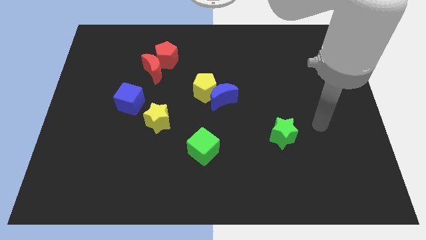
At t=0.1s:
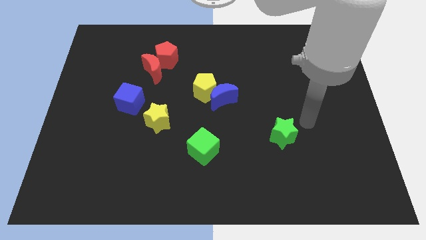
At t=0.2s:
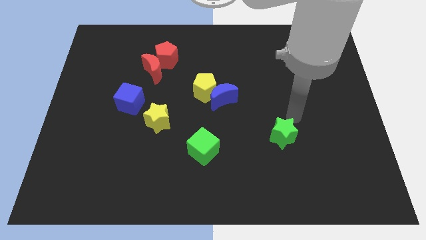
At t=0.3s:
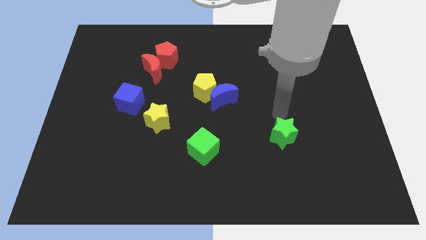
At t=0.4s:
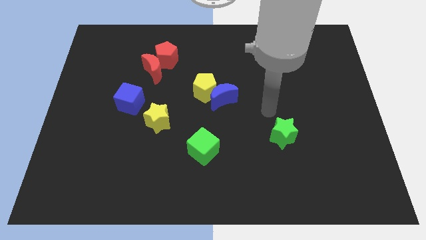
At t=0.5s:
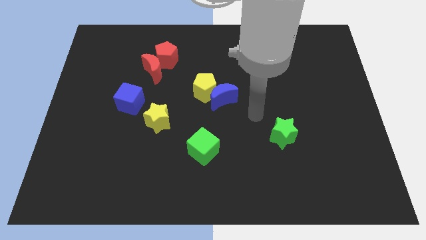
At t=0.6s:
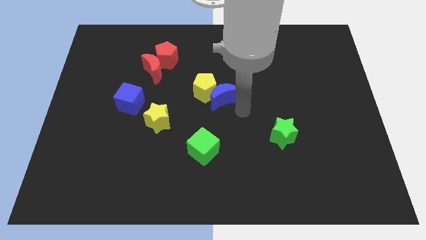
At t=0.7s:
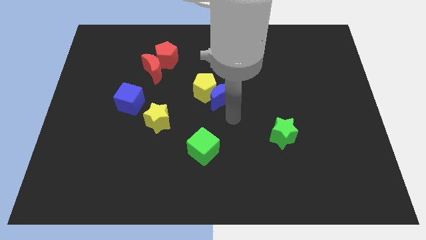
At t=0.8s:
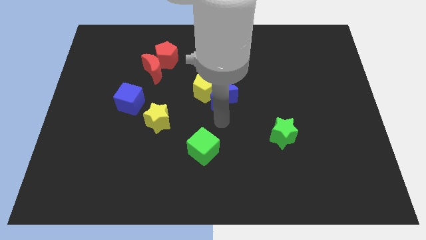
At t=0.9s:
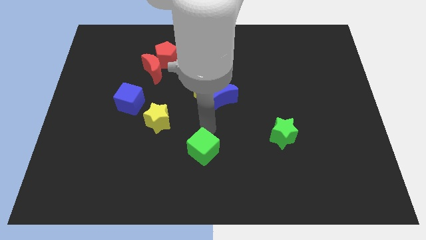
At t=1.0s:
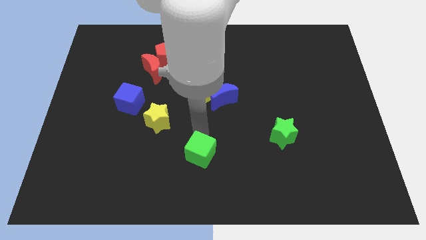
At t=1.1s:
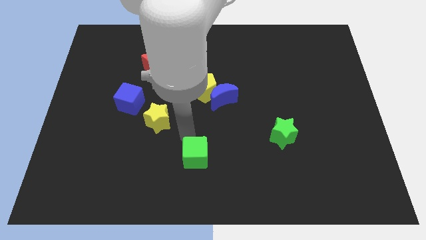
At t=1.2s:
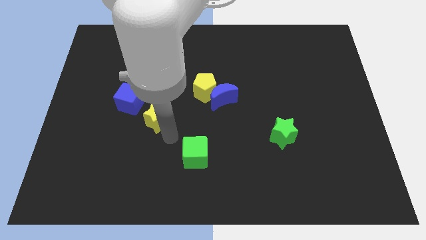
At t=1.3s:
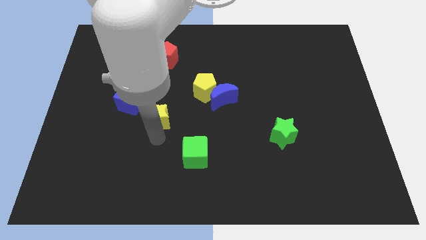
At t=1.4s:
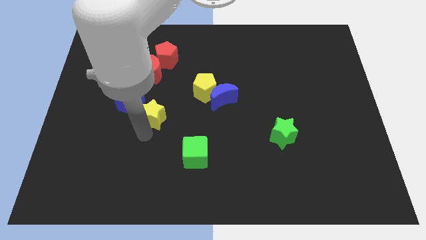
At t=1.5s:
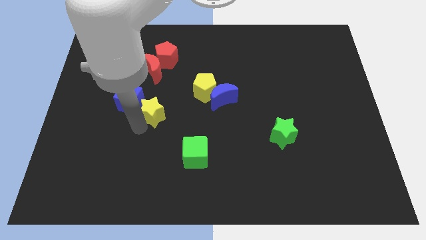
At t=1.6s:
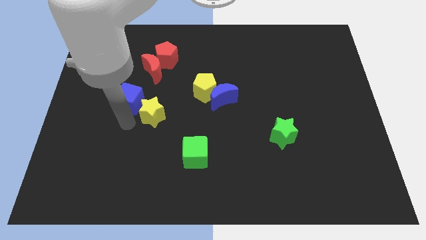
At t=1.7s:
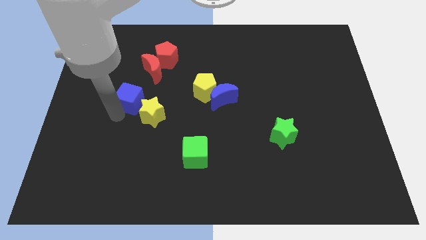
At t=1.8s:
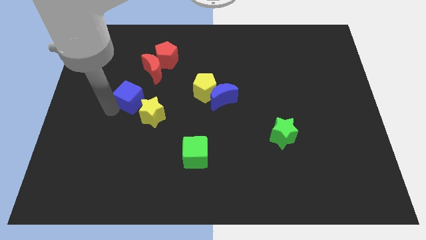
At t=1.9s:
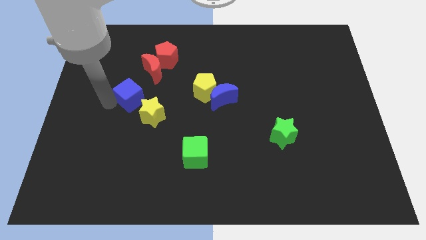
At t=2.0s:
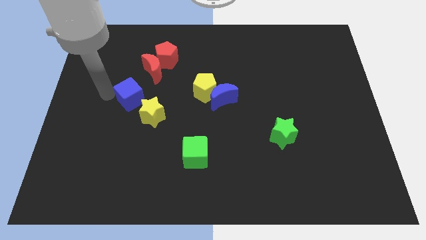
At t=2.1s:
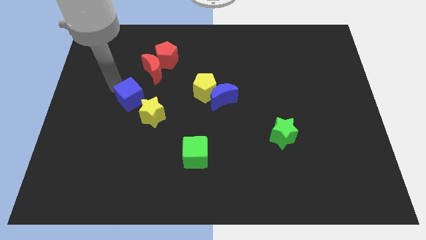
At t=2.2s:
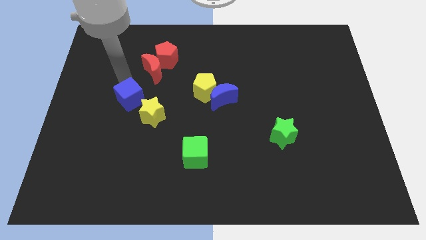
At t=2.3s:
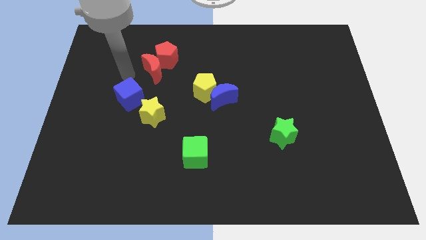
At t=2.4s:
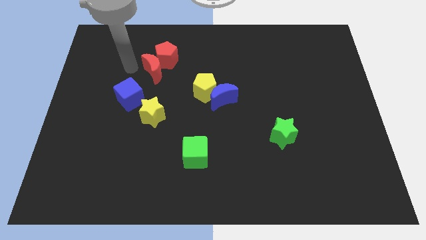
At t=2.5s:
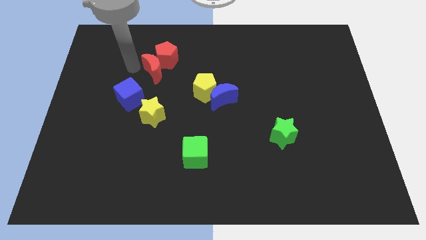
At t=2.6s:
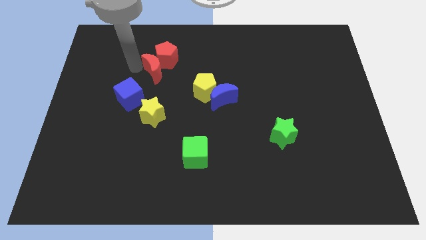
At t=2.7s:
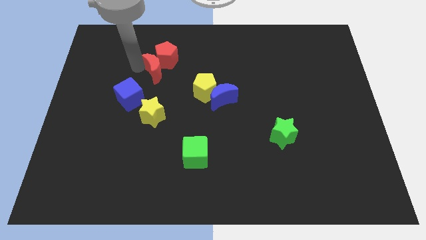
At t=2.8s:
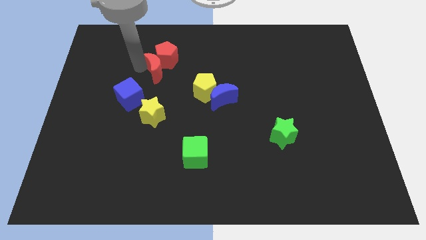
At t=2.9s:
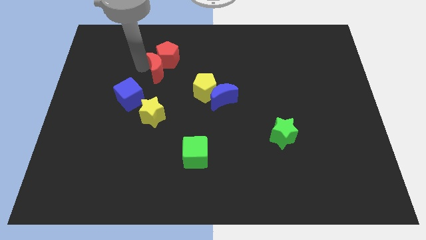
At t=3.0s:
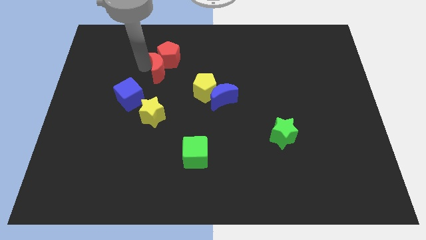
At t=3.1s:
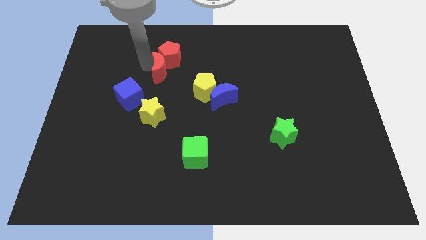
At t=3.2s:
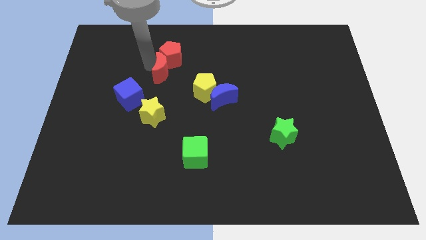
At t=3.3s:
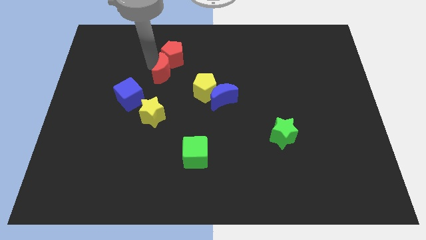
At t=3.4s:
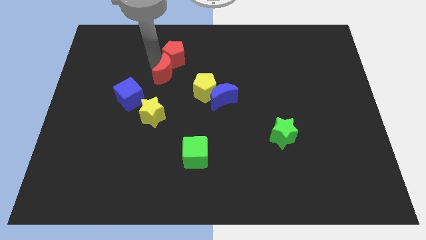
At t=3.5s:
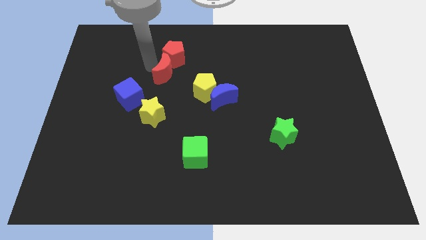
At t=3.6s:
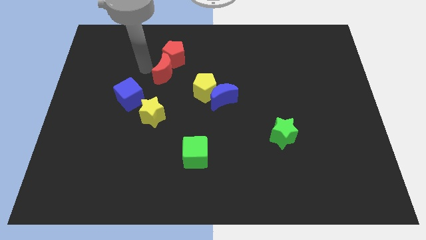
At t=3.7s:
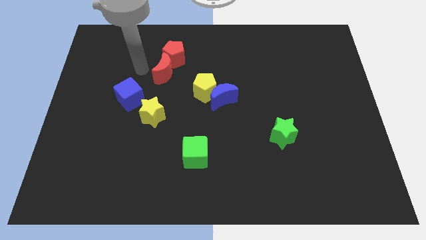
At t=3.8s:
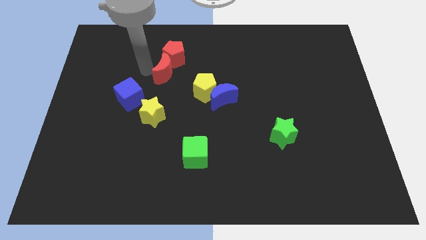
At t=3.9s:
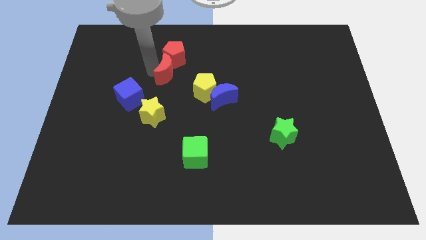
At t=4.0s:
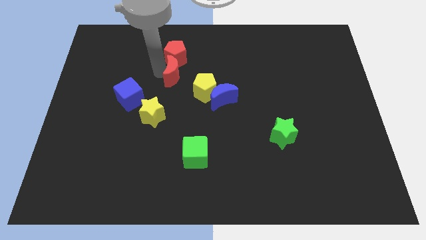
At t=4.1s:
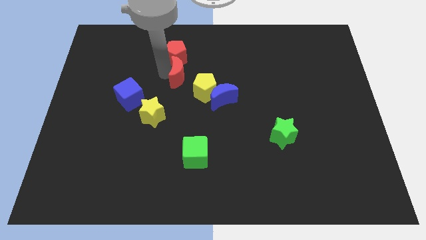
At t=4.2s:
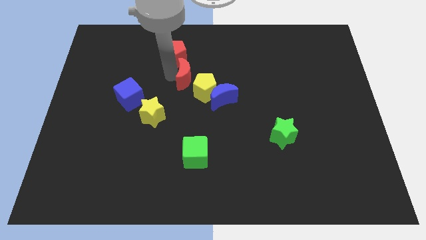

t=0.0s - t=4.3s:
slide the red moon a bit to the right

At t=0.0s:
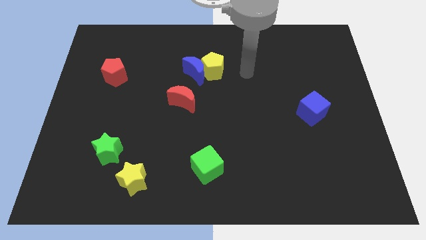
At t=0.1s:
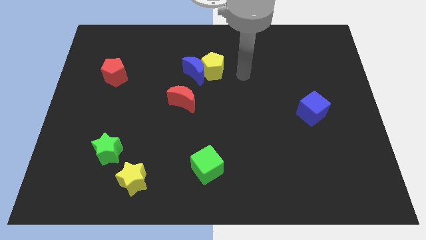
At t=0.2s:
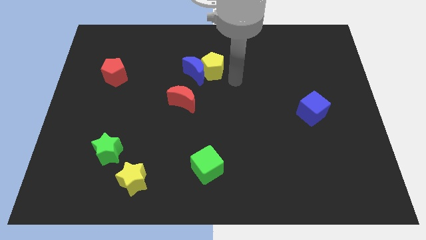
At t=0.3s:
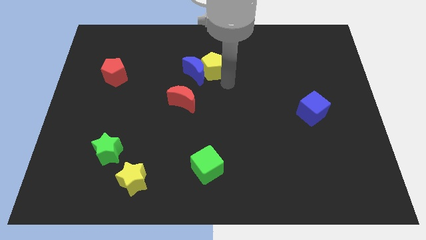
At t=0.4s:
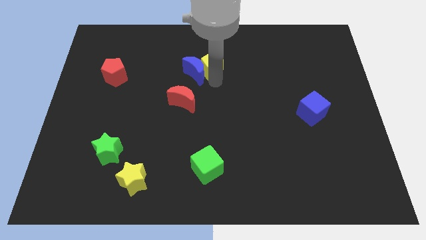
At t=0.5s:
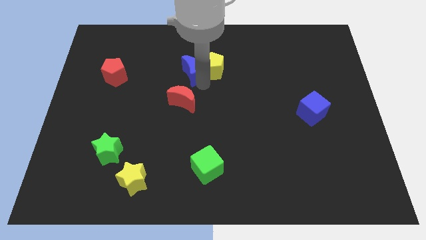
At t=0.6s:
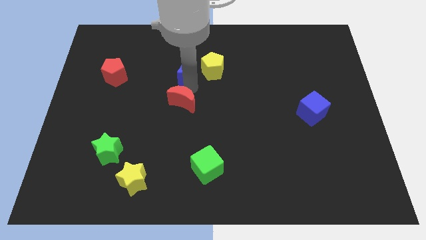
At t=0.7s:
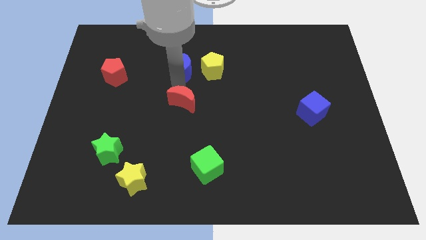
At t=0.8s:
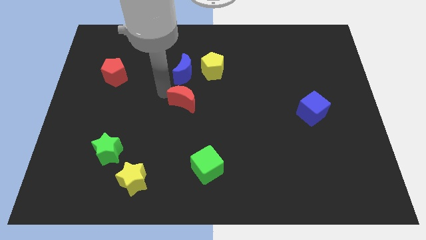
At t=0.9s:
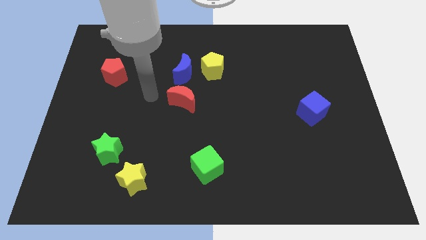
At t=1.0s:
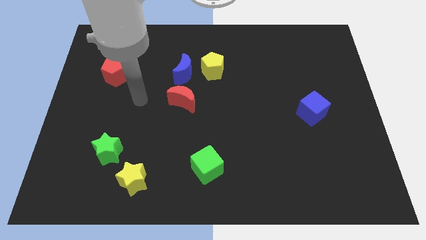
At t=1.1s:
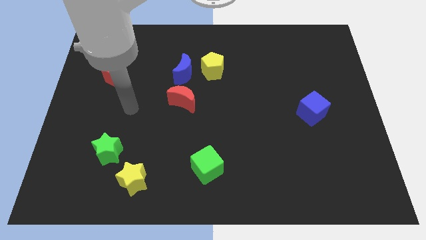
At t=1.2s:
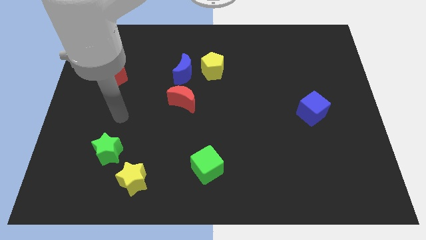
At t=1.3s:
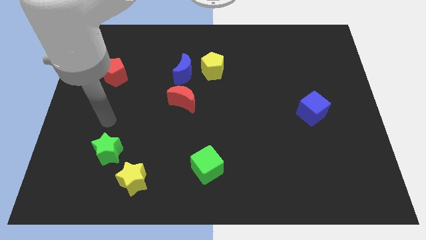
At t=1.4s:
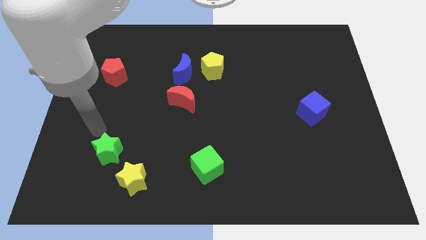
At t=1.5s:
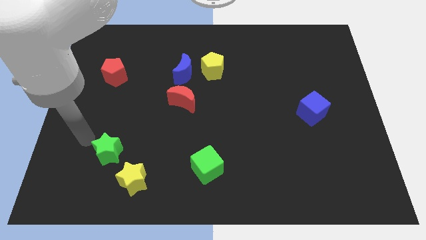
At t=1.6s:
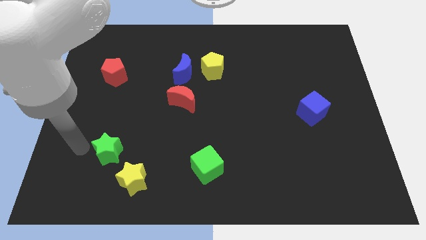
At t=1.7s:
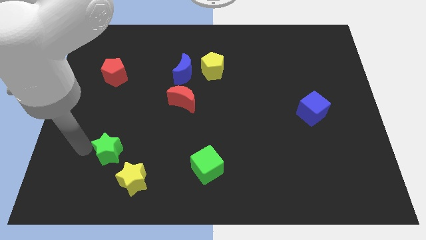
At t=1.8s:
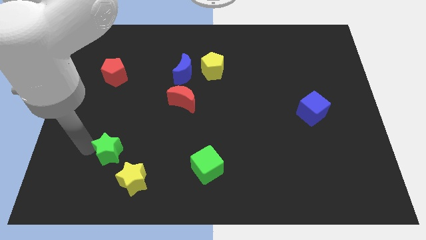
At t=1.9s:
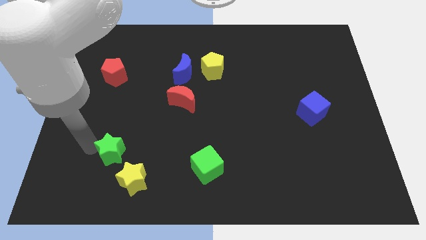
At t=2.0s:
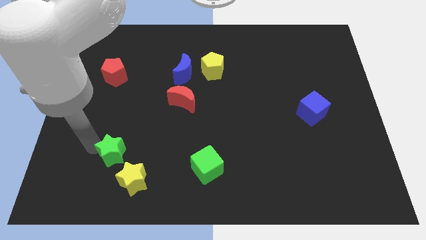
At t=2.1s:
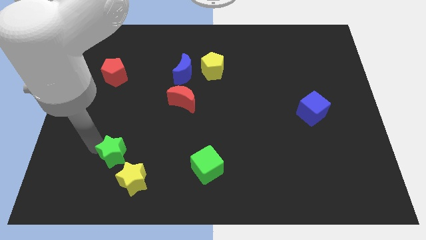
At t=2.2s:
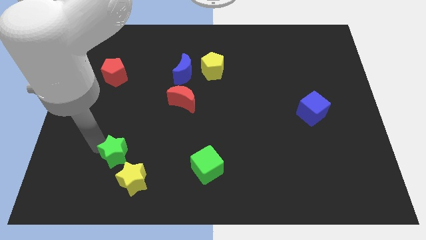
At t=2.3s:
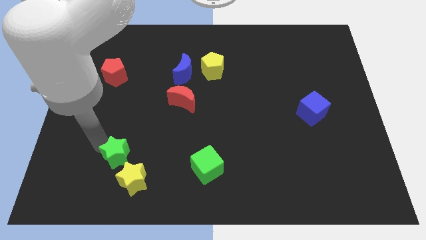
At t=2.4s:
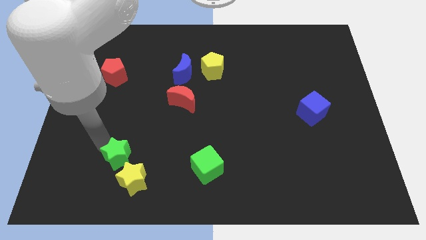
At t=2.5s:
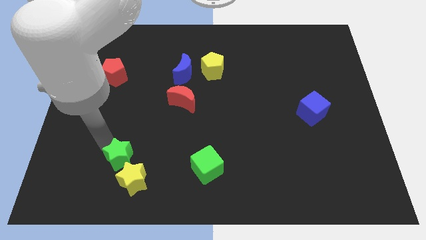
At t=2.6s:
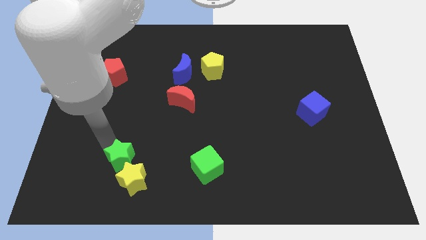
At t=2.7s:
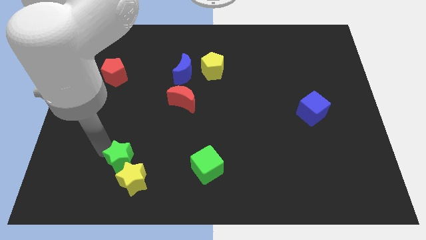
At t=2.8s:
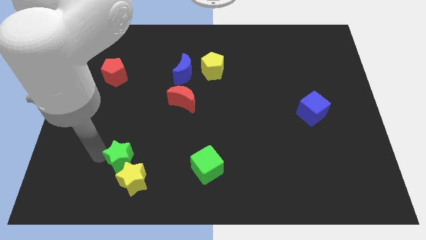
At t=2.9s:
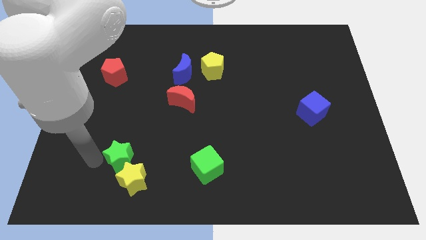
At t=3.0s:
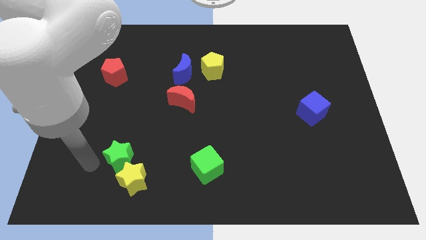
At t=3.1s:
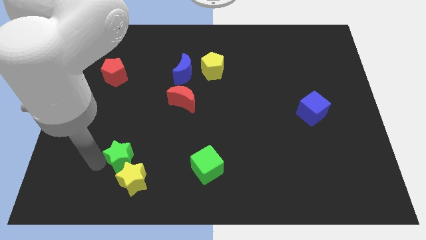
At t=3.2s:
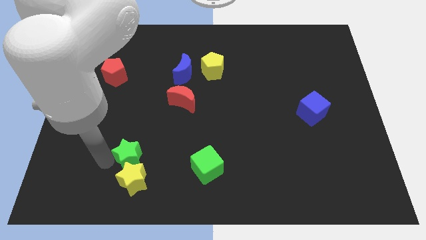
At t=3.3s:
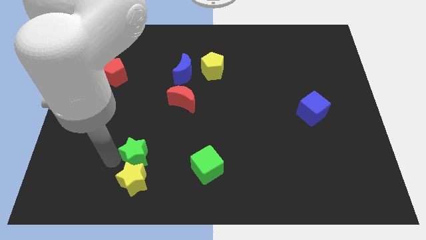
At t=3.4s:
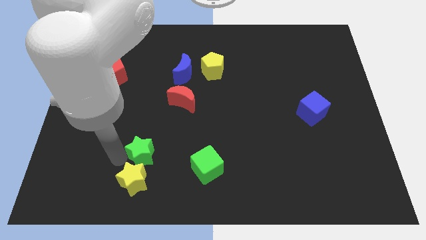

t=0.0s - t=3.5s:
move the green star to the right a little

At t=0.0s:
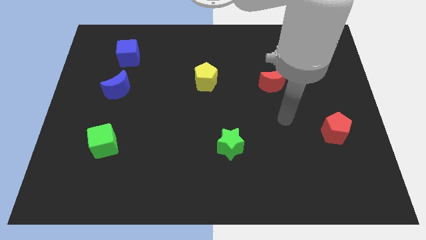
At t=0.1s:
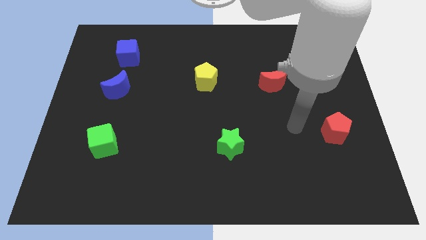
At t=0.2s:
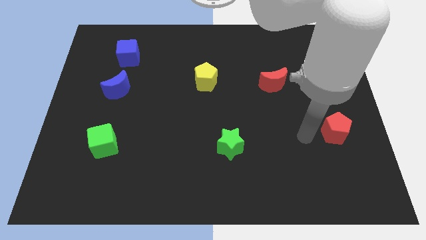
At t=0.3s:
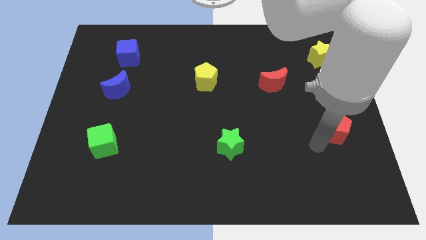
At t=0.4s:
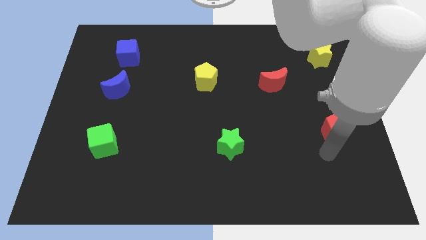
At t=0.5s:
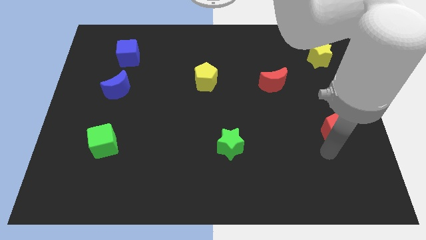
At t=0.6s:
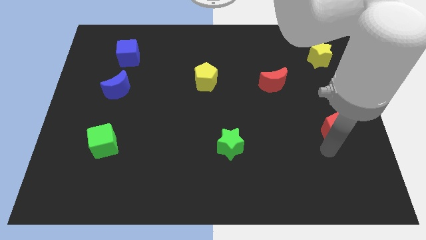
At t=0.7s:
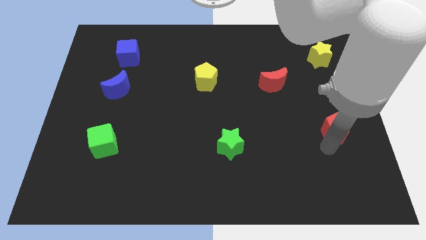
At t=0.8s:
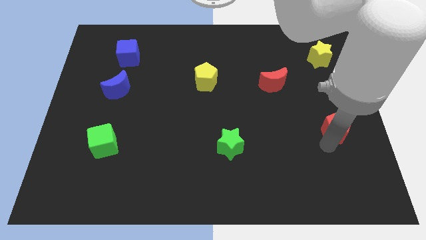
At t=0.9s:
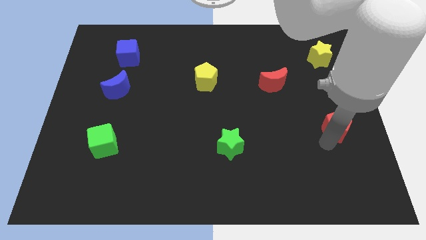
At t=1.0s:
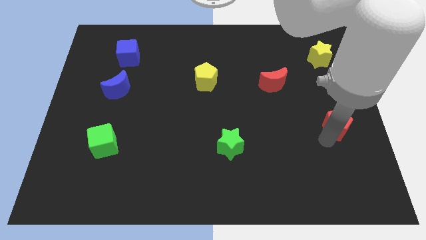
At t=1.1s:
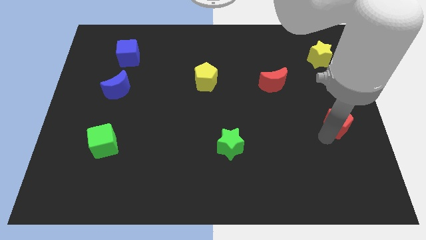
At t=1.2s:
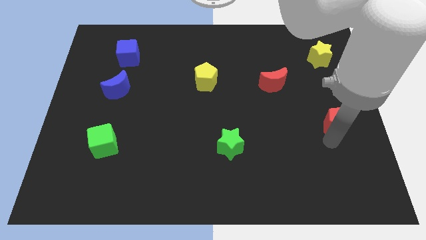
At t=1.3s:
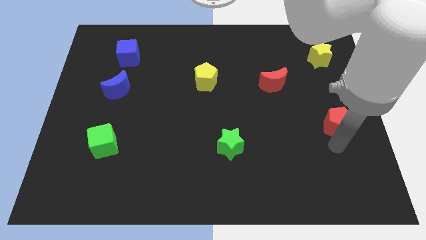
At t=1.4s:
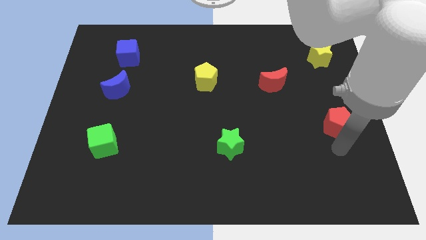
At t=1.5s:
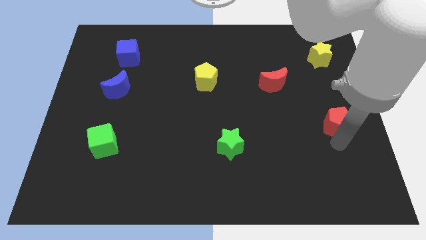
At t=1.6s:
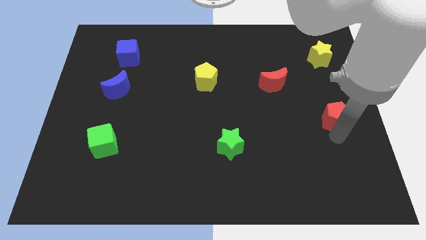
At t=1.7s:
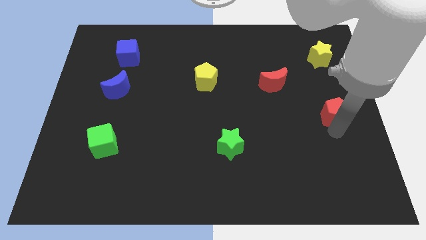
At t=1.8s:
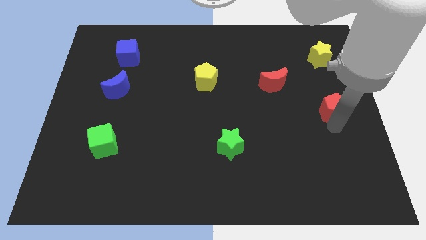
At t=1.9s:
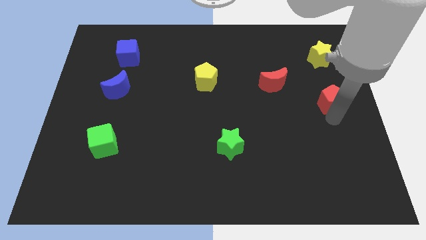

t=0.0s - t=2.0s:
push the red pentagon up a little
